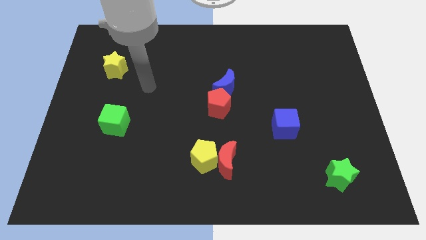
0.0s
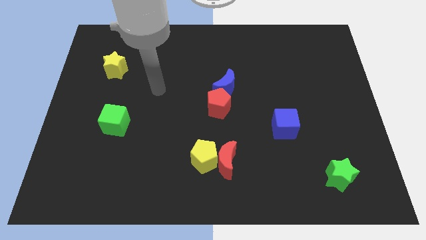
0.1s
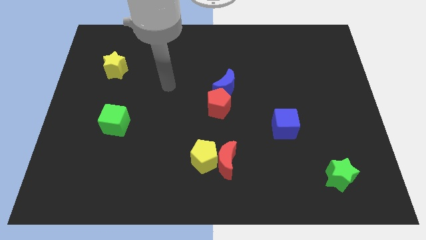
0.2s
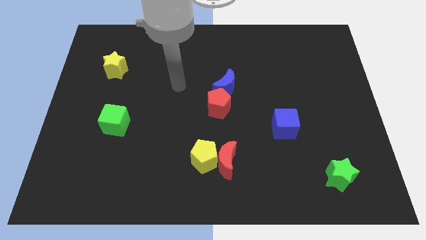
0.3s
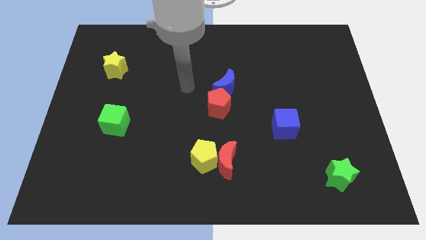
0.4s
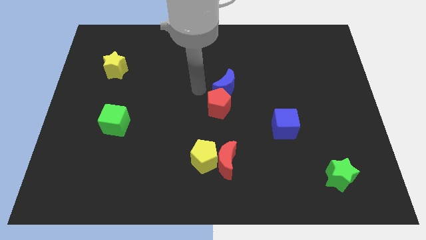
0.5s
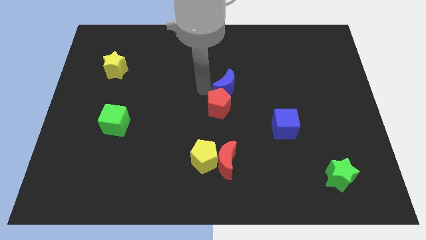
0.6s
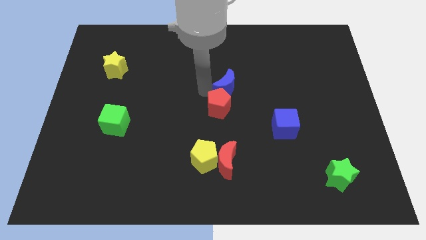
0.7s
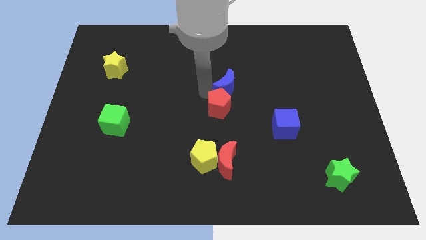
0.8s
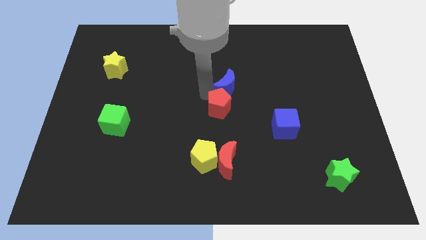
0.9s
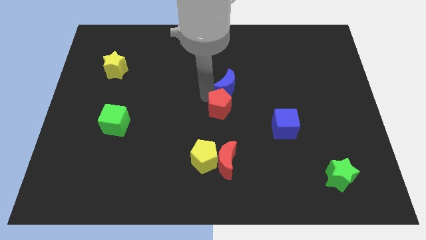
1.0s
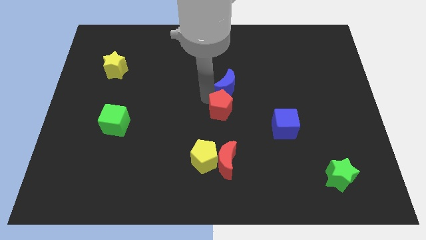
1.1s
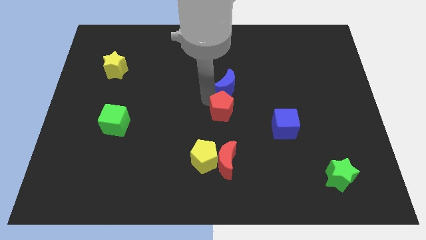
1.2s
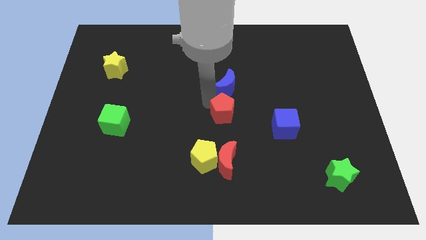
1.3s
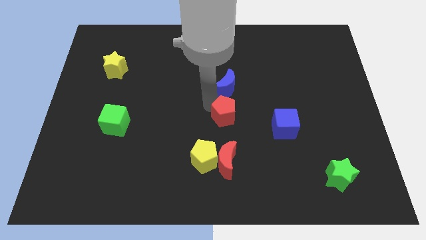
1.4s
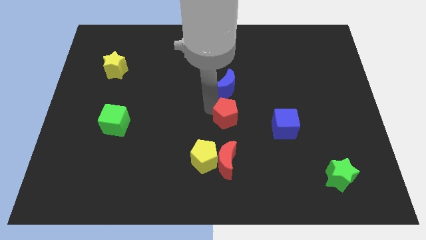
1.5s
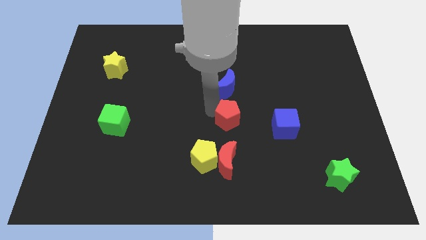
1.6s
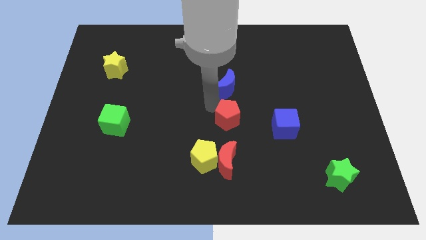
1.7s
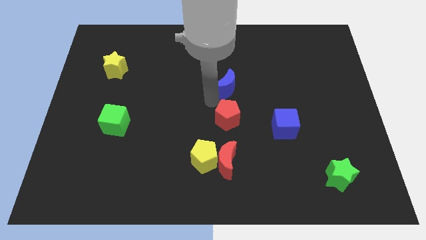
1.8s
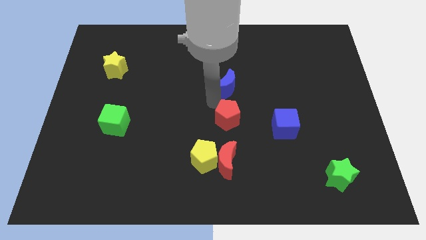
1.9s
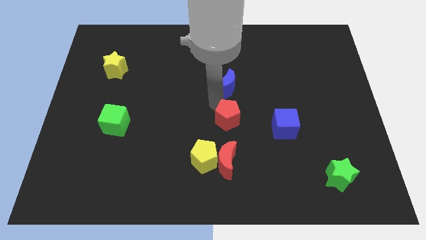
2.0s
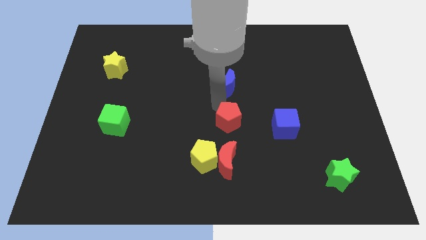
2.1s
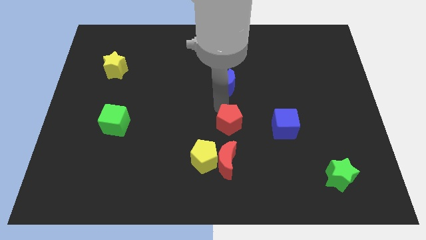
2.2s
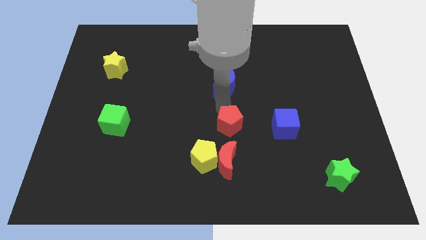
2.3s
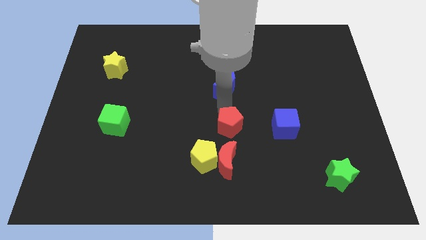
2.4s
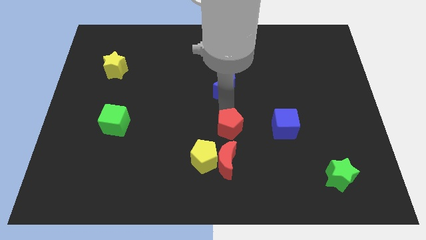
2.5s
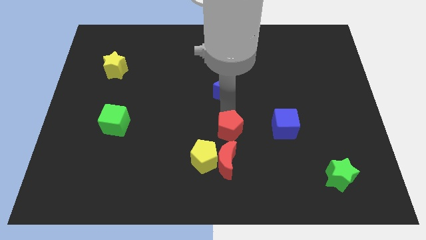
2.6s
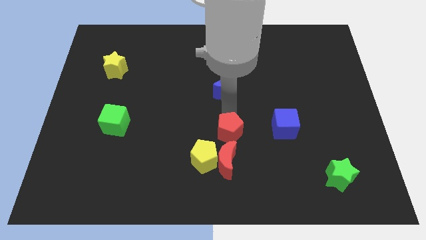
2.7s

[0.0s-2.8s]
slightly push the red pentagon down

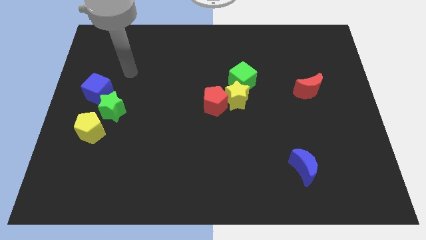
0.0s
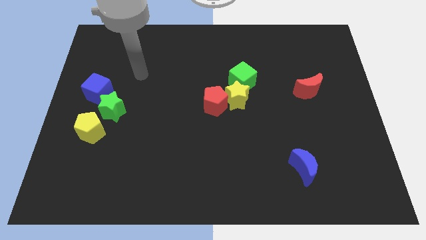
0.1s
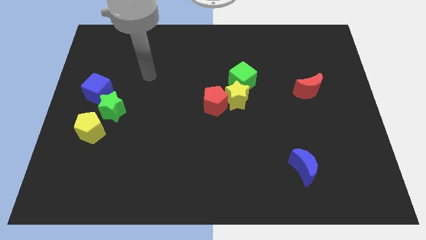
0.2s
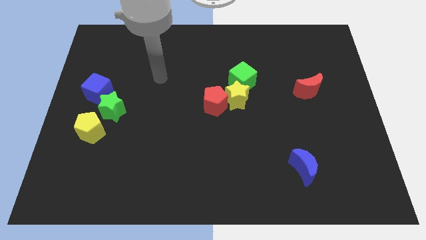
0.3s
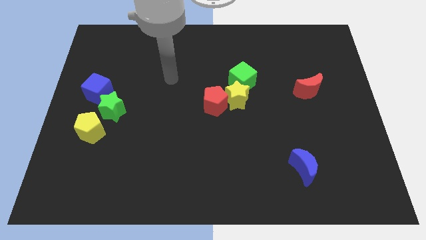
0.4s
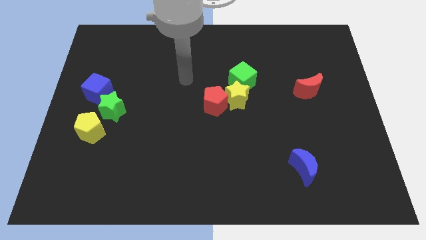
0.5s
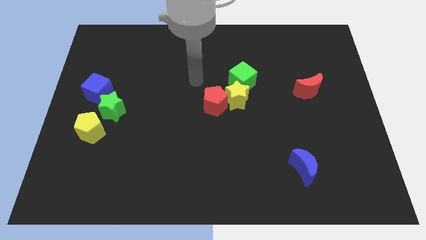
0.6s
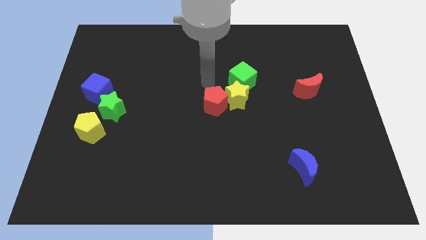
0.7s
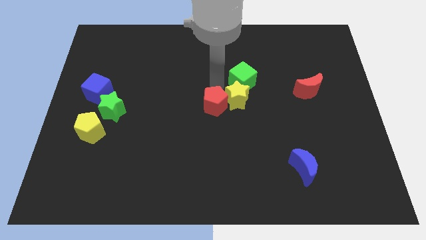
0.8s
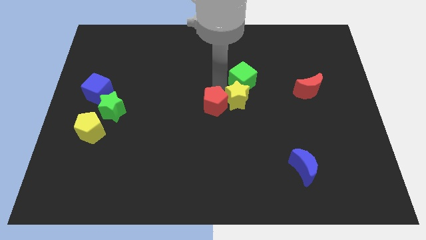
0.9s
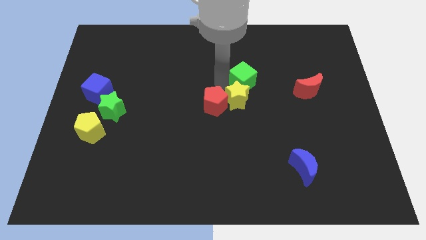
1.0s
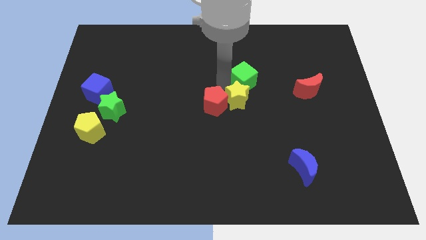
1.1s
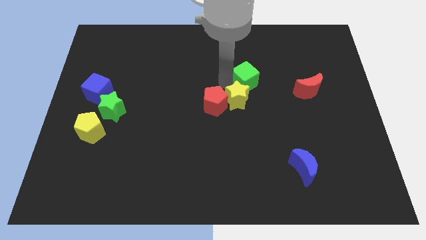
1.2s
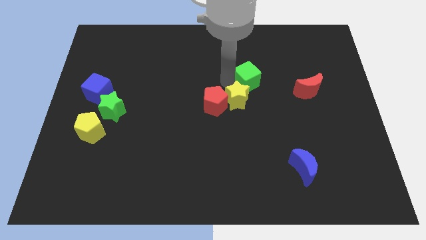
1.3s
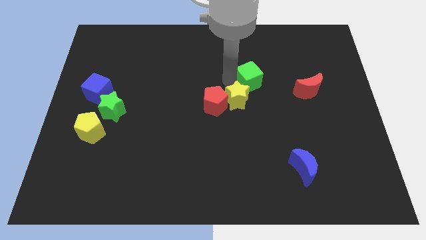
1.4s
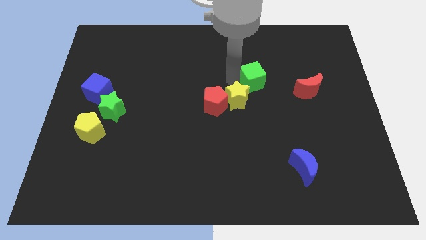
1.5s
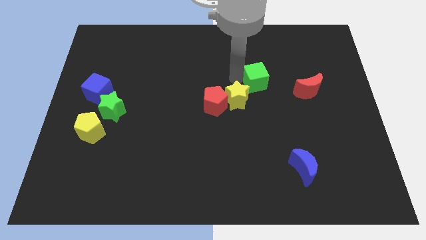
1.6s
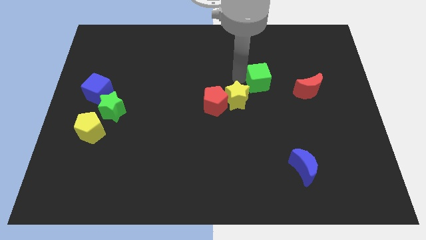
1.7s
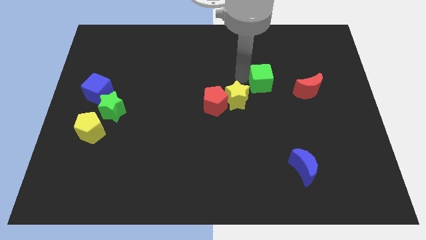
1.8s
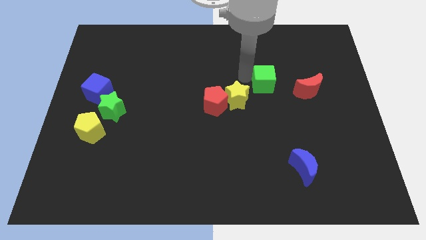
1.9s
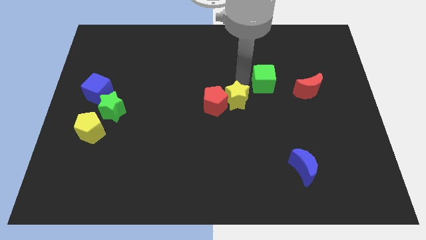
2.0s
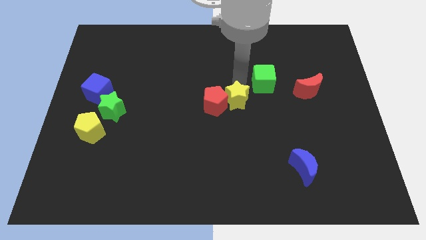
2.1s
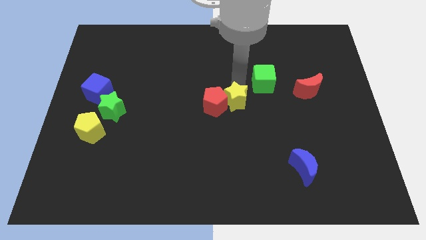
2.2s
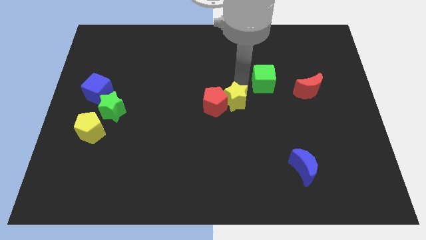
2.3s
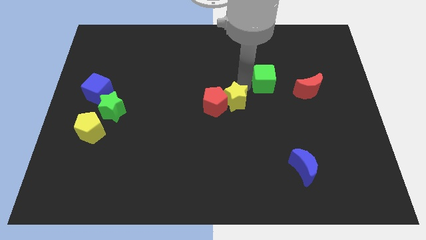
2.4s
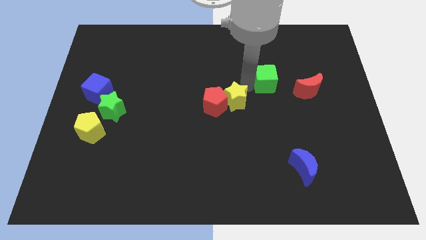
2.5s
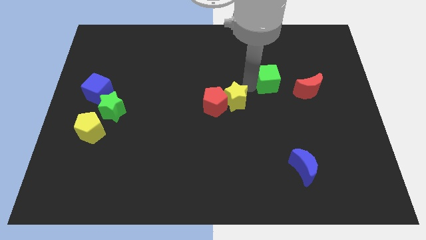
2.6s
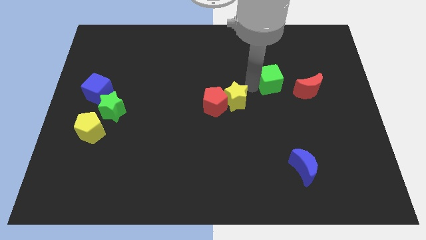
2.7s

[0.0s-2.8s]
push the green cube to the right slightly

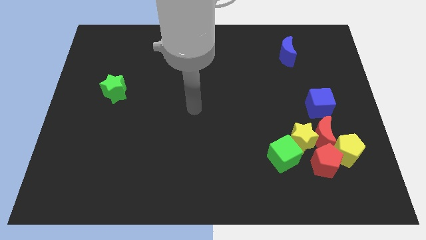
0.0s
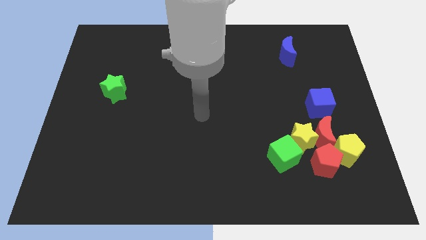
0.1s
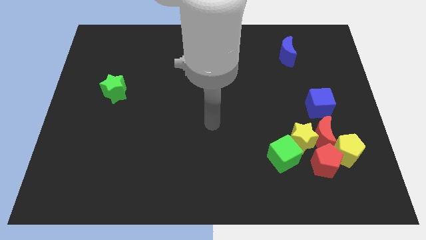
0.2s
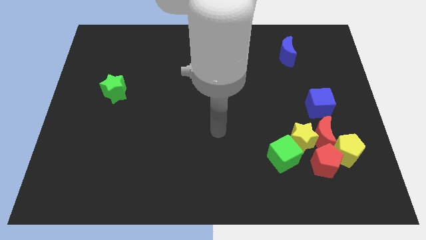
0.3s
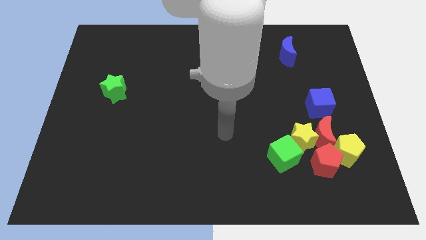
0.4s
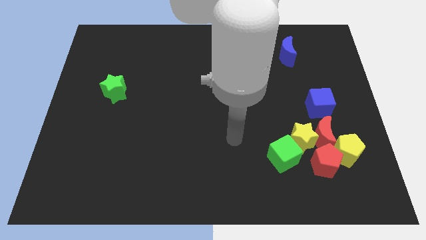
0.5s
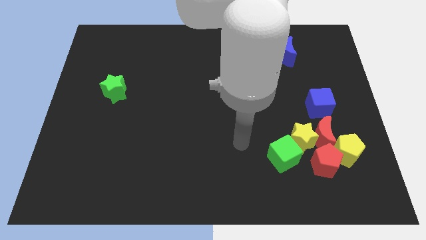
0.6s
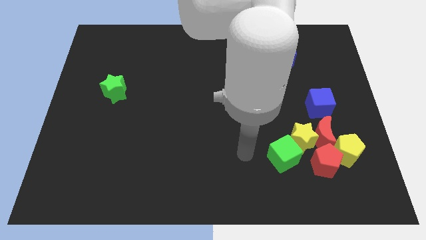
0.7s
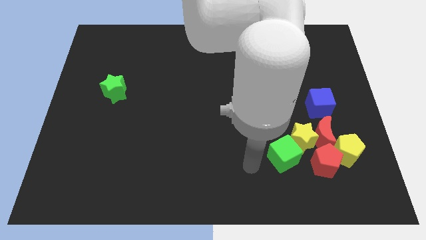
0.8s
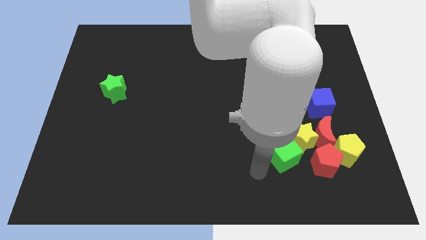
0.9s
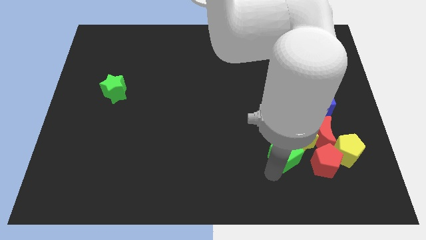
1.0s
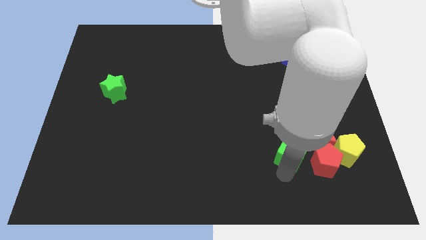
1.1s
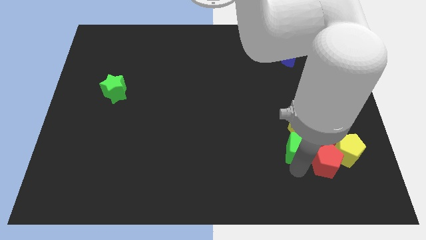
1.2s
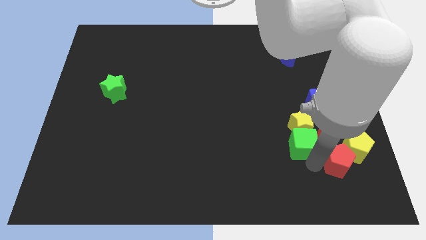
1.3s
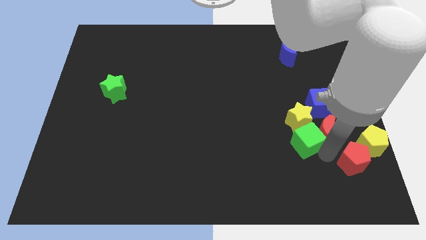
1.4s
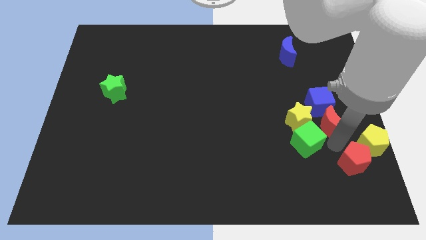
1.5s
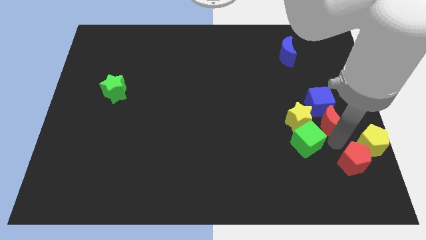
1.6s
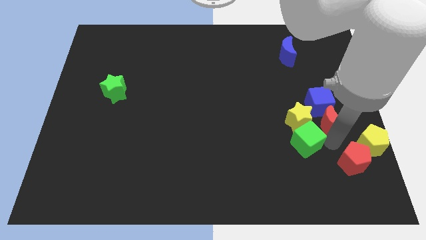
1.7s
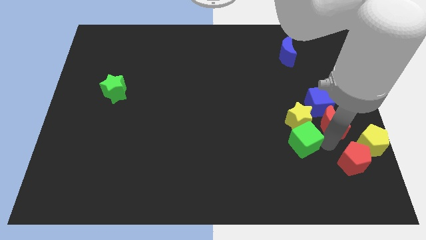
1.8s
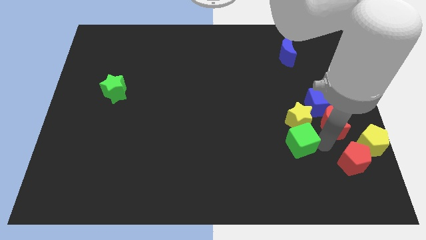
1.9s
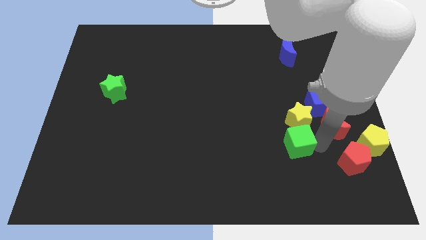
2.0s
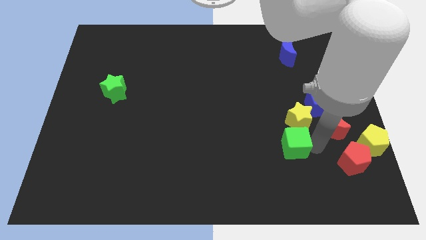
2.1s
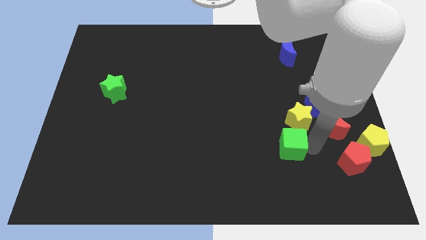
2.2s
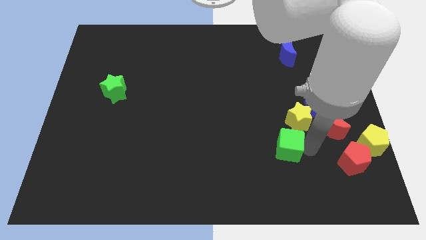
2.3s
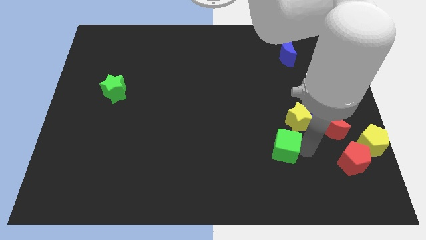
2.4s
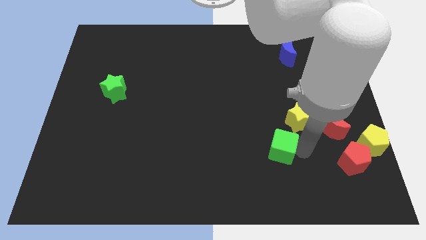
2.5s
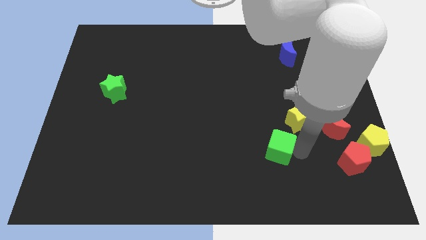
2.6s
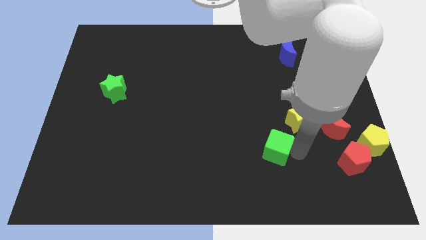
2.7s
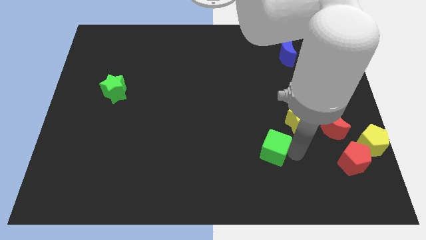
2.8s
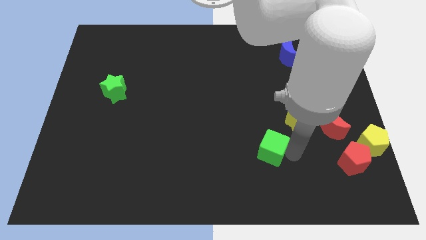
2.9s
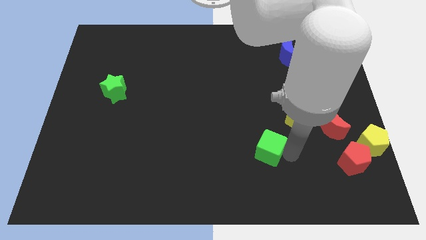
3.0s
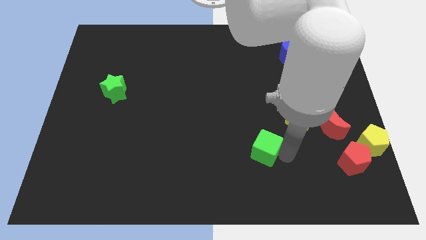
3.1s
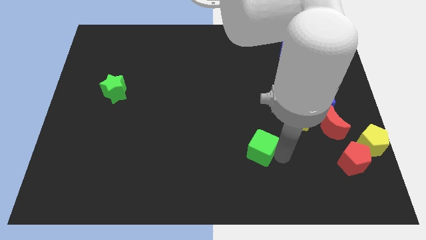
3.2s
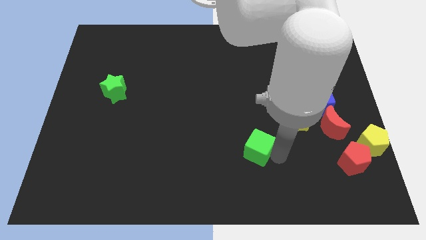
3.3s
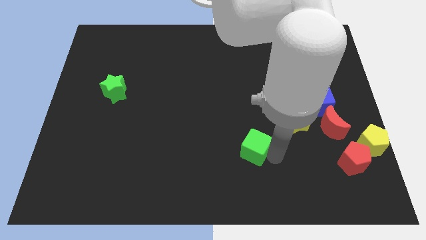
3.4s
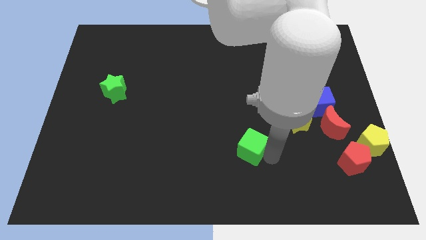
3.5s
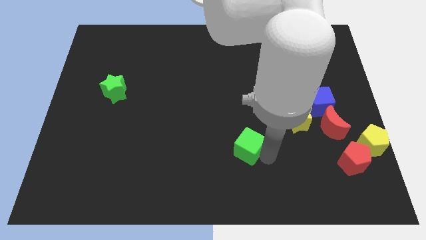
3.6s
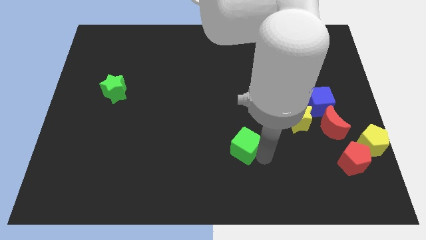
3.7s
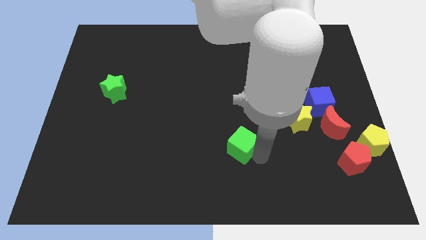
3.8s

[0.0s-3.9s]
slide the green cube somewhat upwards and left diagonally
